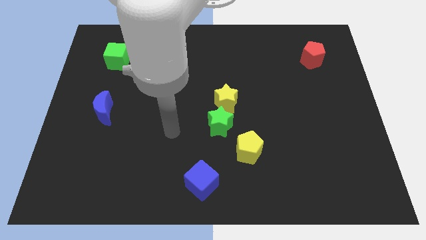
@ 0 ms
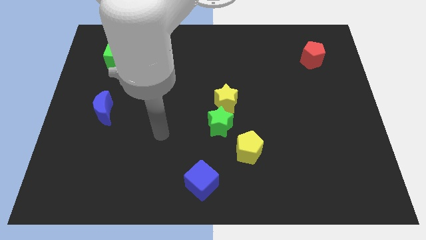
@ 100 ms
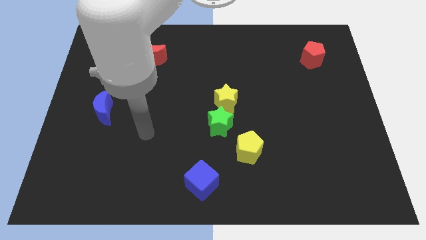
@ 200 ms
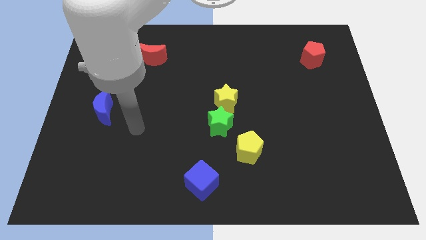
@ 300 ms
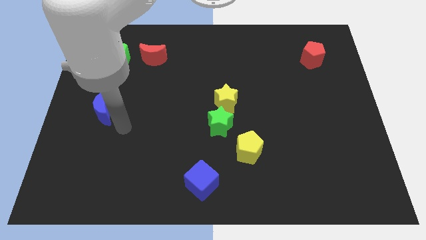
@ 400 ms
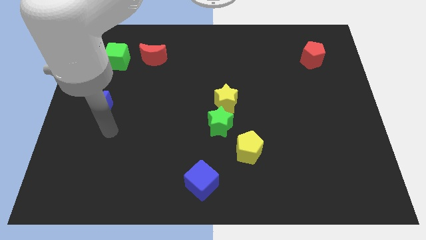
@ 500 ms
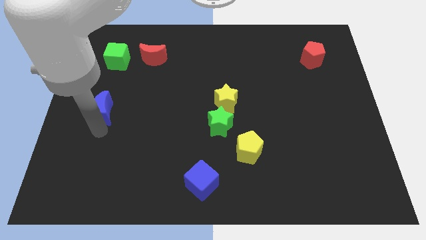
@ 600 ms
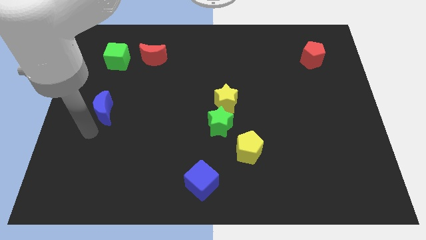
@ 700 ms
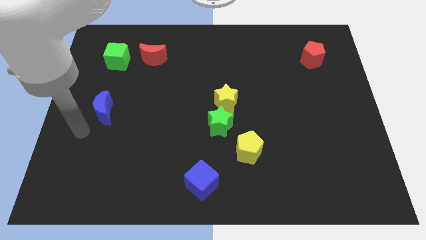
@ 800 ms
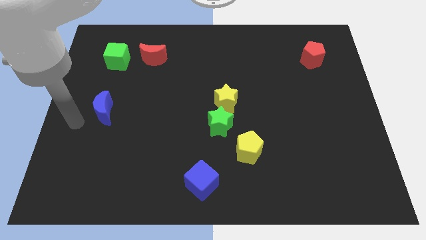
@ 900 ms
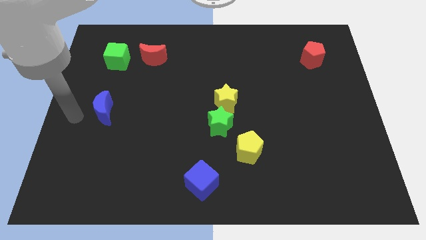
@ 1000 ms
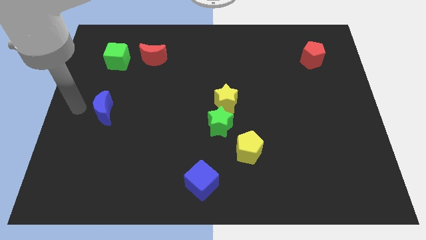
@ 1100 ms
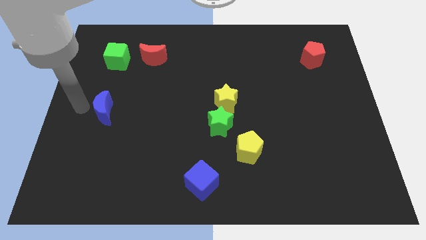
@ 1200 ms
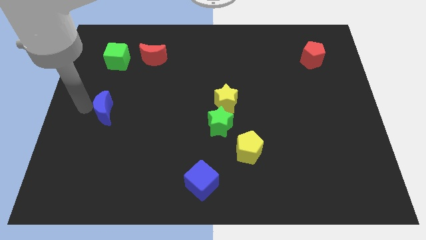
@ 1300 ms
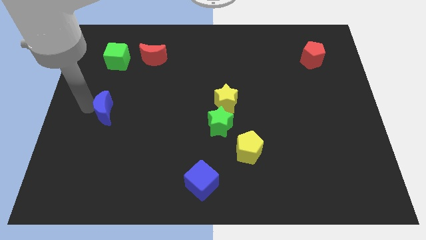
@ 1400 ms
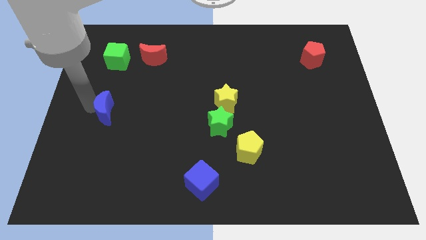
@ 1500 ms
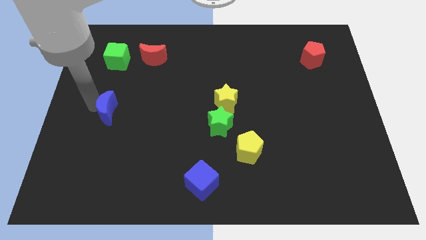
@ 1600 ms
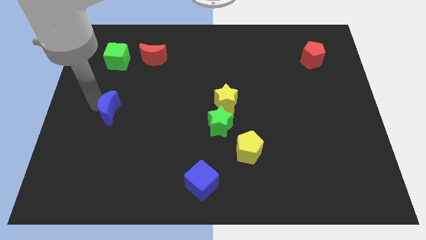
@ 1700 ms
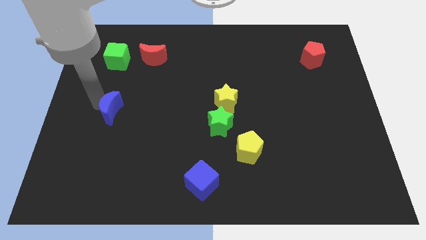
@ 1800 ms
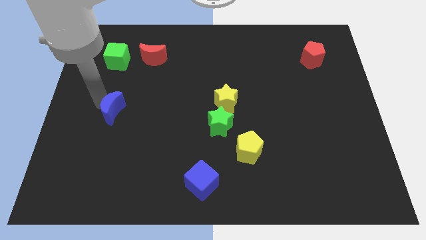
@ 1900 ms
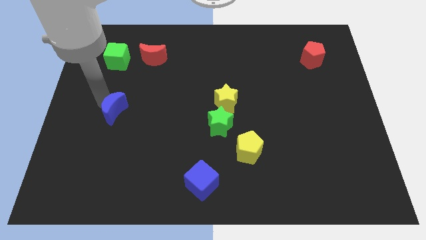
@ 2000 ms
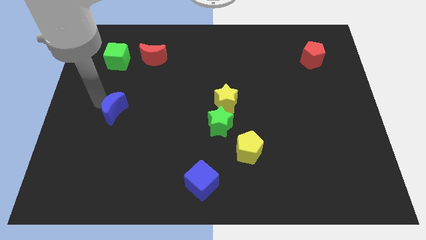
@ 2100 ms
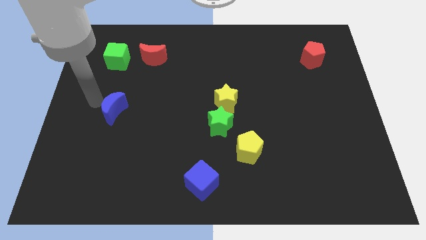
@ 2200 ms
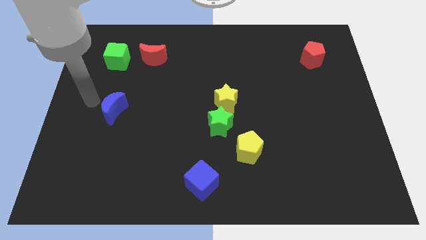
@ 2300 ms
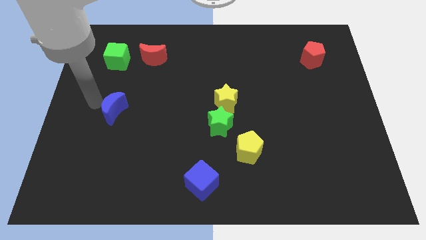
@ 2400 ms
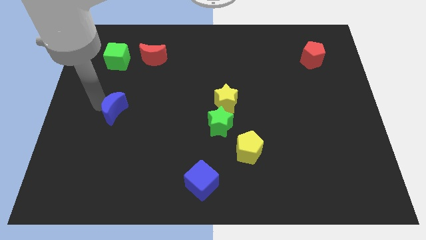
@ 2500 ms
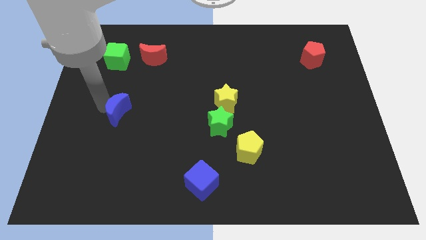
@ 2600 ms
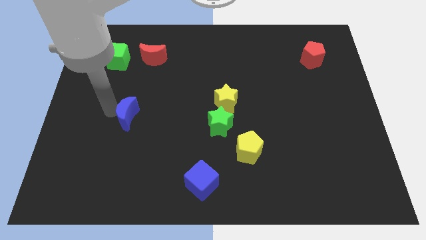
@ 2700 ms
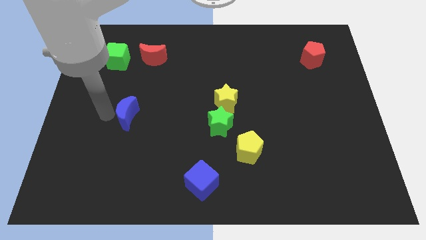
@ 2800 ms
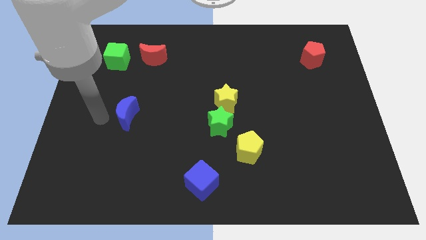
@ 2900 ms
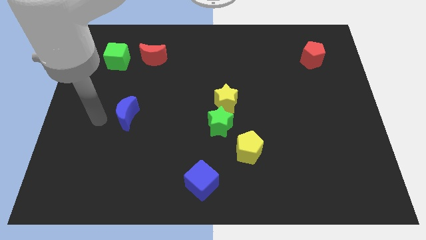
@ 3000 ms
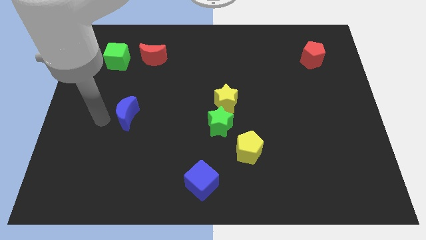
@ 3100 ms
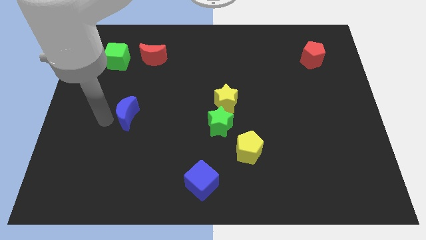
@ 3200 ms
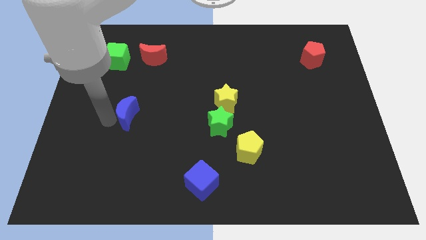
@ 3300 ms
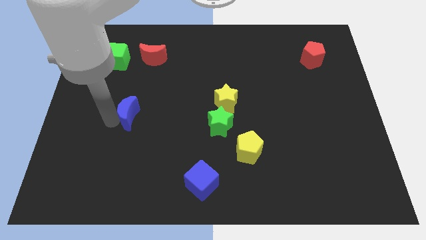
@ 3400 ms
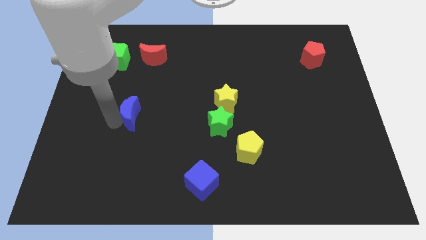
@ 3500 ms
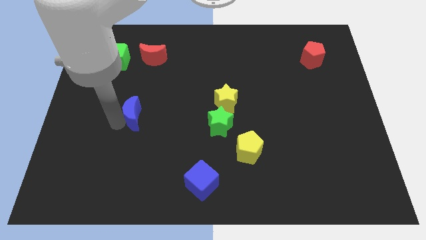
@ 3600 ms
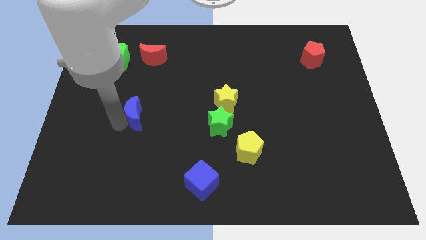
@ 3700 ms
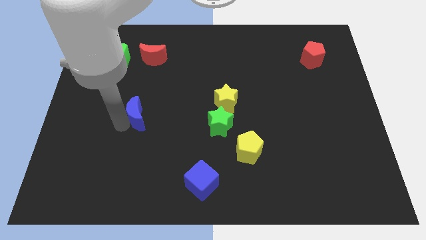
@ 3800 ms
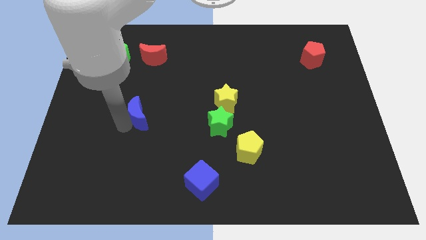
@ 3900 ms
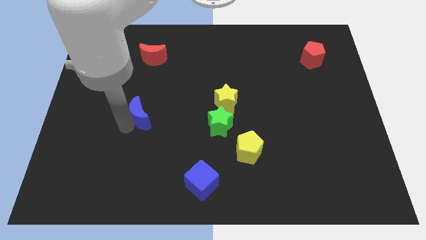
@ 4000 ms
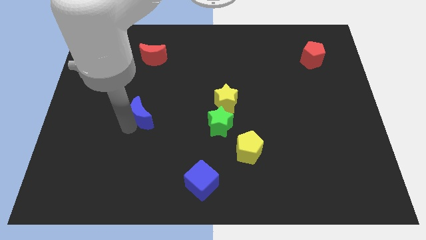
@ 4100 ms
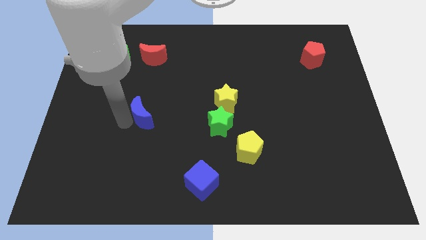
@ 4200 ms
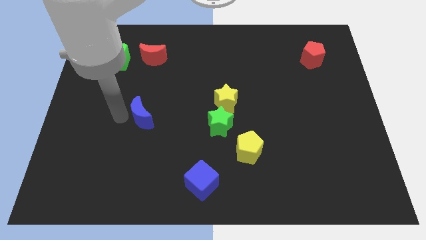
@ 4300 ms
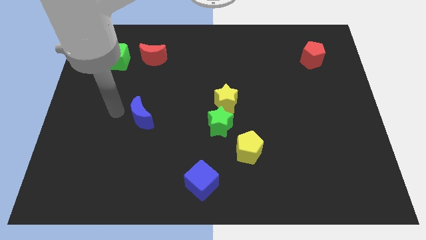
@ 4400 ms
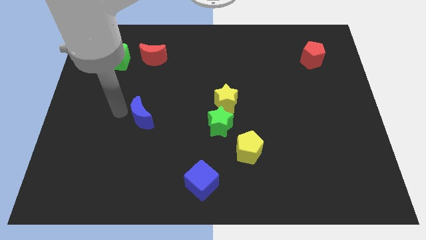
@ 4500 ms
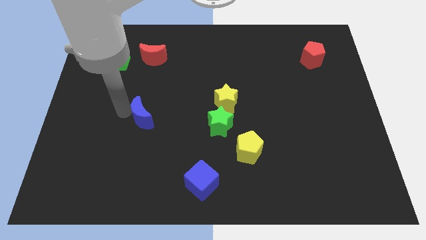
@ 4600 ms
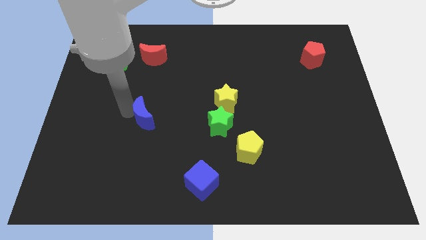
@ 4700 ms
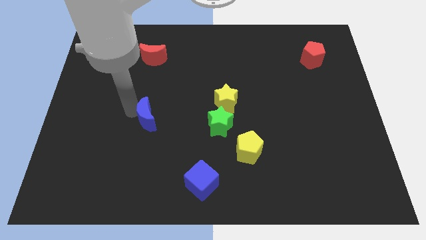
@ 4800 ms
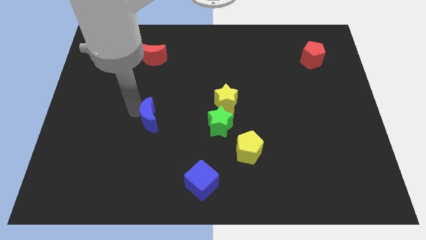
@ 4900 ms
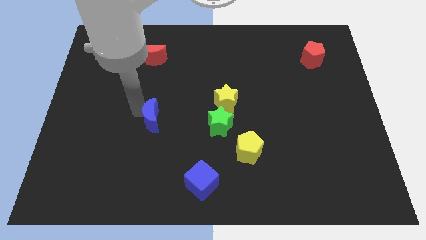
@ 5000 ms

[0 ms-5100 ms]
move the blue moon to the left of the green star

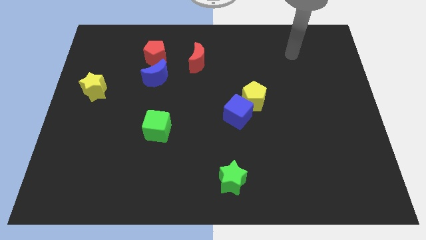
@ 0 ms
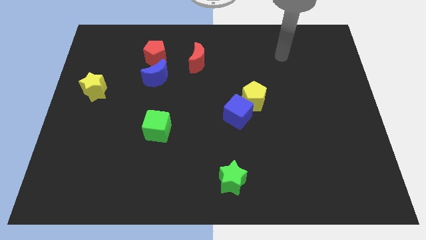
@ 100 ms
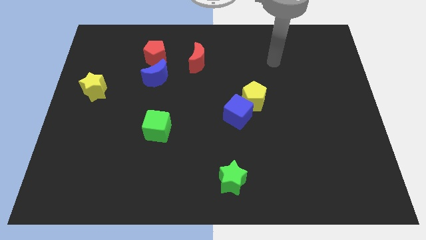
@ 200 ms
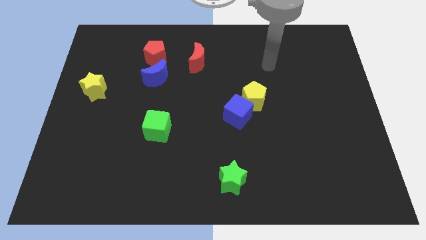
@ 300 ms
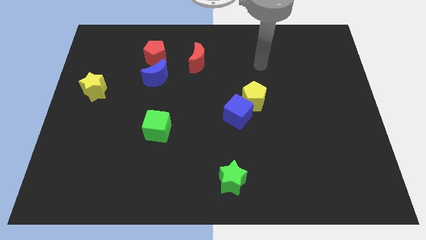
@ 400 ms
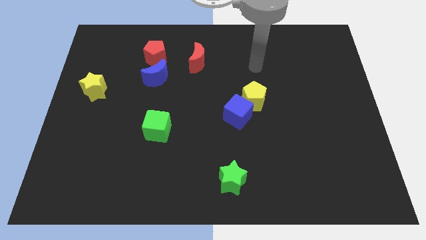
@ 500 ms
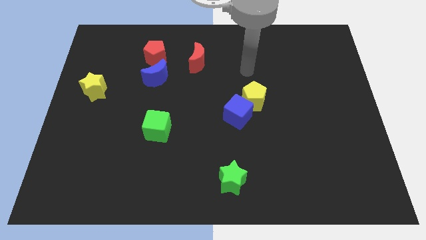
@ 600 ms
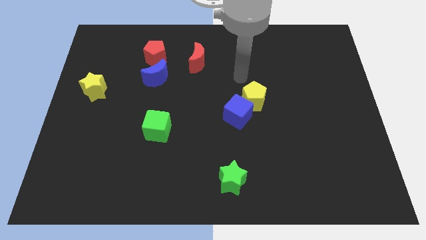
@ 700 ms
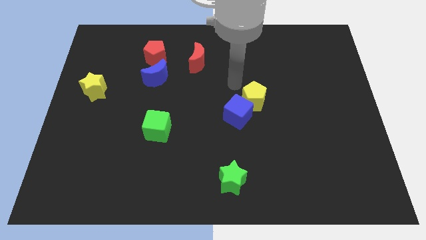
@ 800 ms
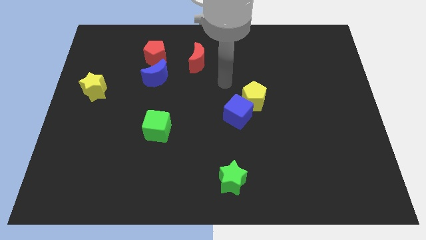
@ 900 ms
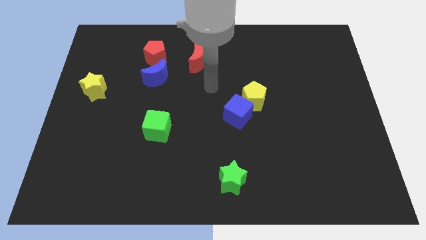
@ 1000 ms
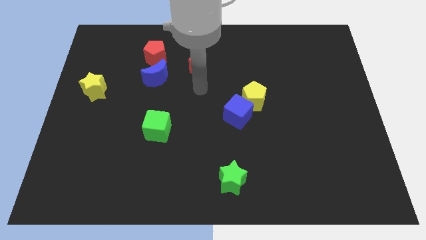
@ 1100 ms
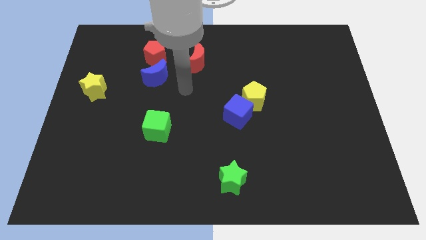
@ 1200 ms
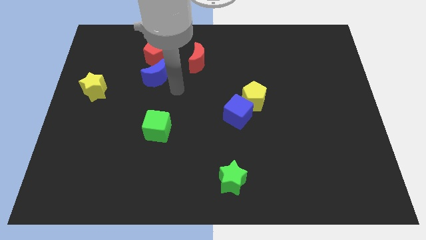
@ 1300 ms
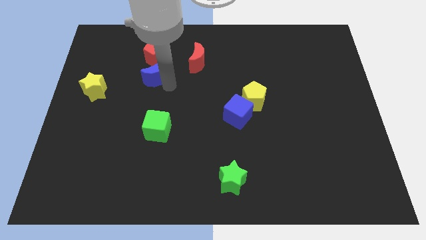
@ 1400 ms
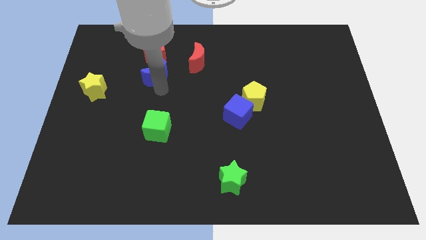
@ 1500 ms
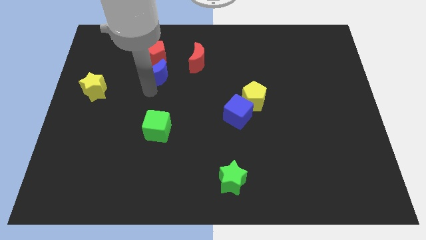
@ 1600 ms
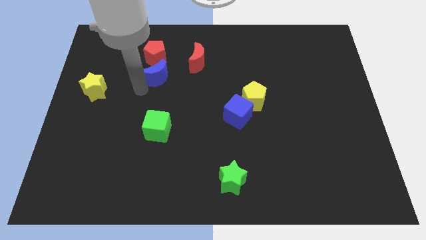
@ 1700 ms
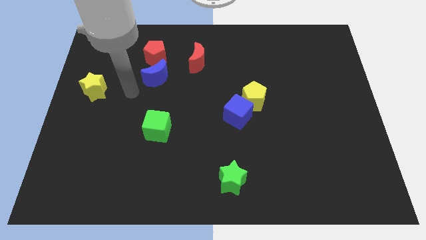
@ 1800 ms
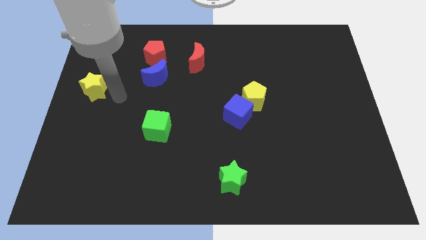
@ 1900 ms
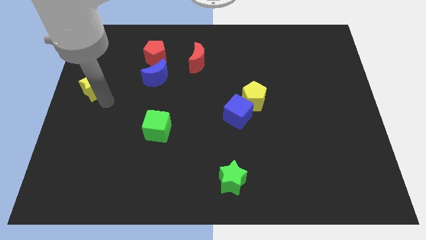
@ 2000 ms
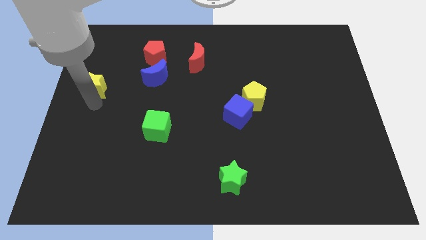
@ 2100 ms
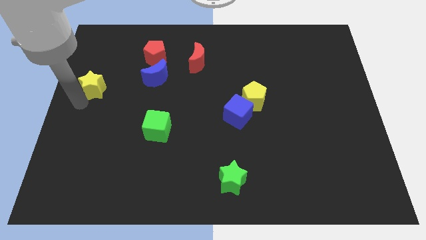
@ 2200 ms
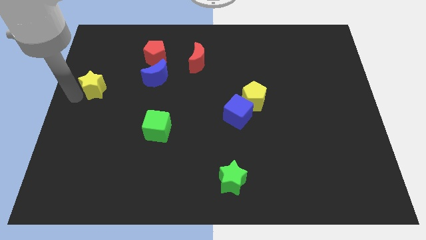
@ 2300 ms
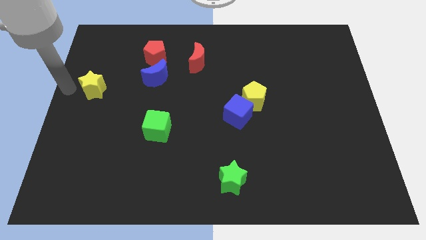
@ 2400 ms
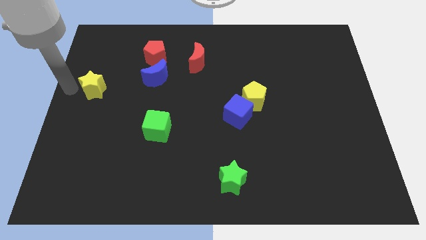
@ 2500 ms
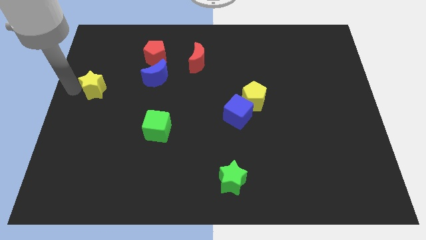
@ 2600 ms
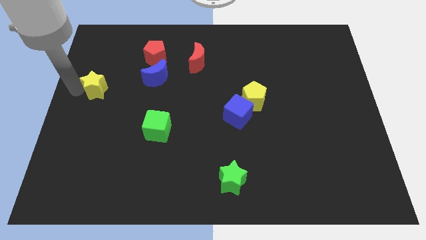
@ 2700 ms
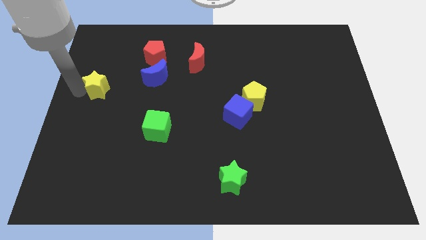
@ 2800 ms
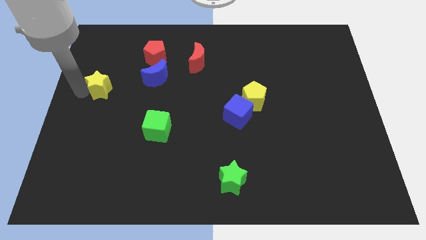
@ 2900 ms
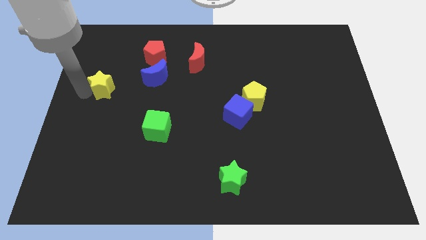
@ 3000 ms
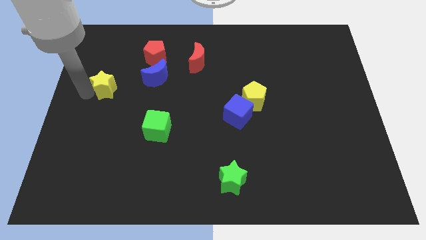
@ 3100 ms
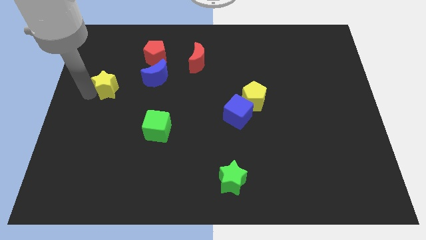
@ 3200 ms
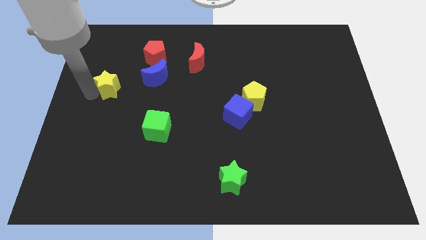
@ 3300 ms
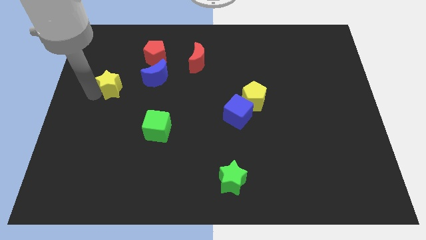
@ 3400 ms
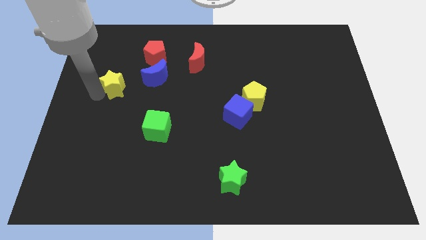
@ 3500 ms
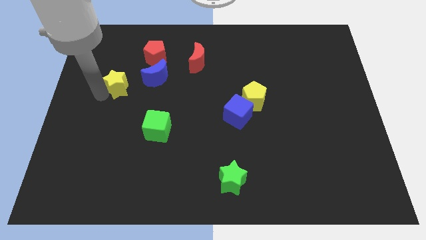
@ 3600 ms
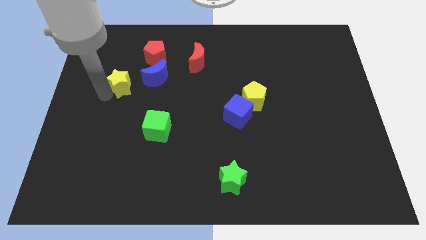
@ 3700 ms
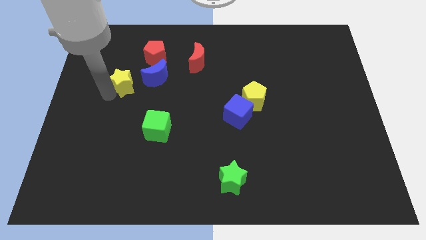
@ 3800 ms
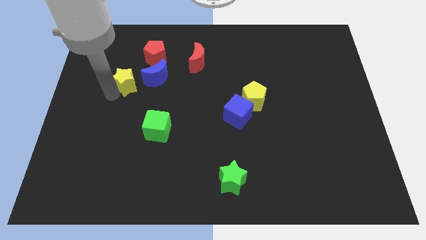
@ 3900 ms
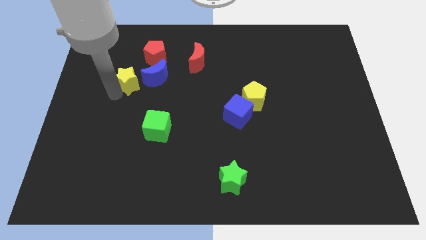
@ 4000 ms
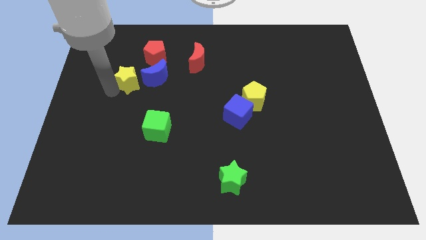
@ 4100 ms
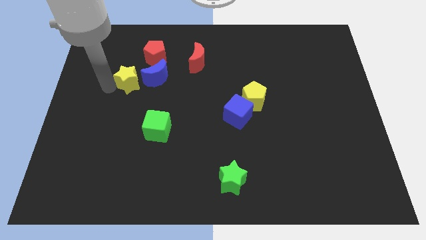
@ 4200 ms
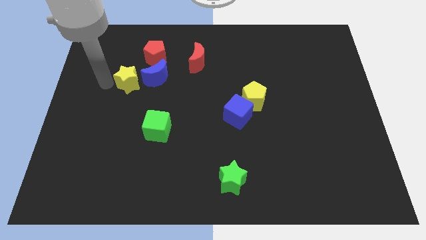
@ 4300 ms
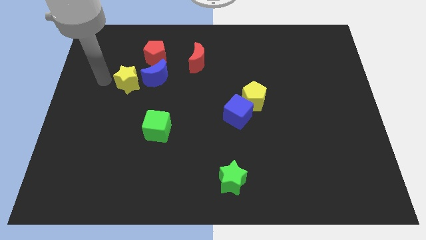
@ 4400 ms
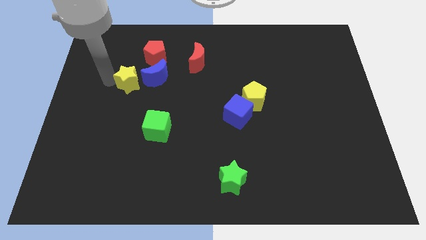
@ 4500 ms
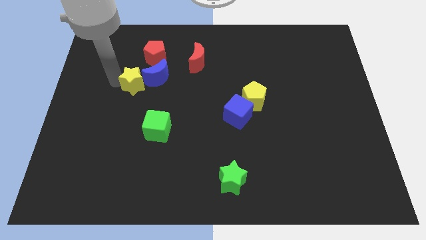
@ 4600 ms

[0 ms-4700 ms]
move the yellow star to the bottom side of the red pentagon
